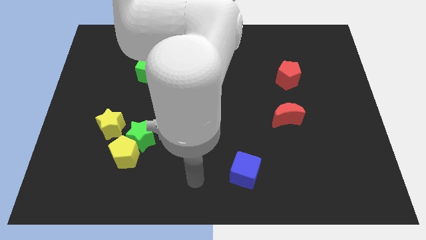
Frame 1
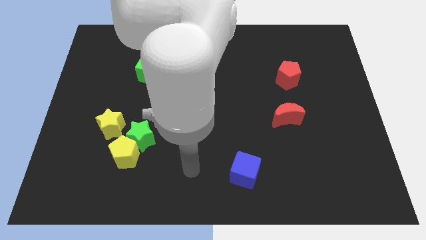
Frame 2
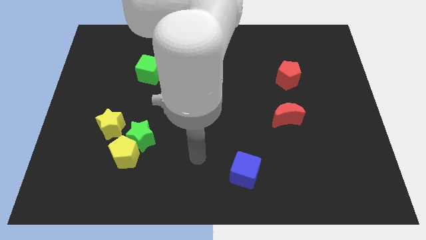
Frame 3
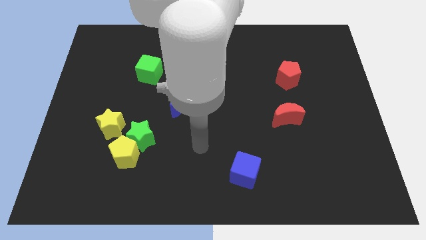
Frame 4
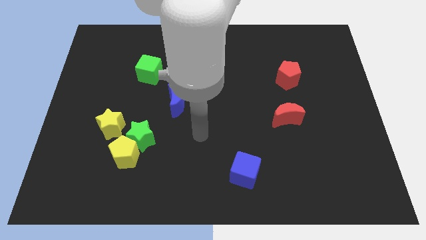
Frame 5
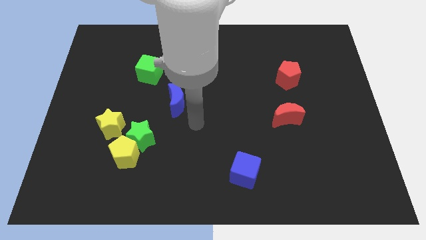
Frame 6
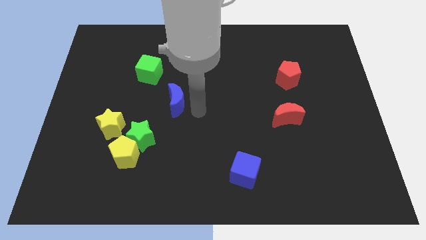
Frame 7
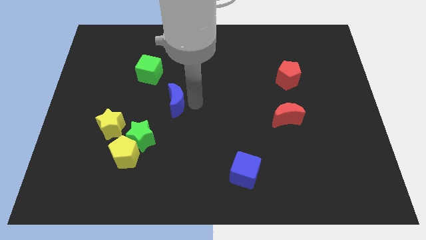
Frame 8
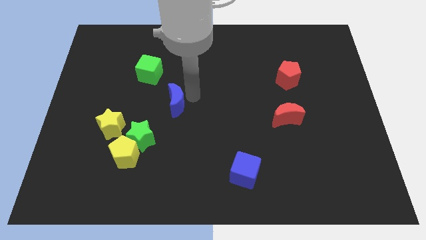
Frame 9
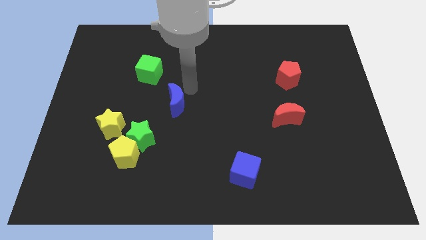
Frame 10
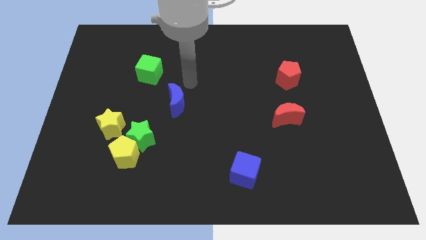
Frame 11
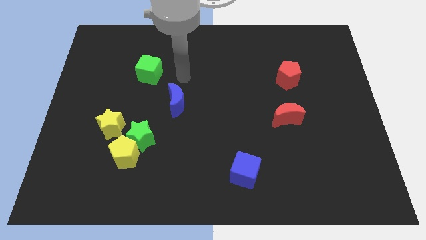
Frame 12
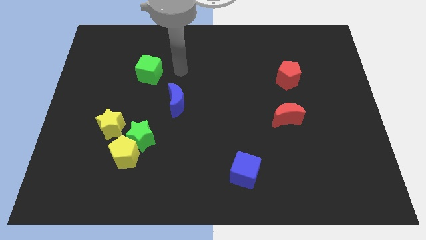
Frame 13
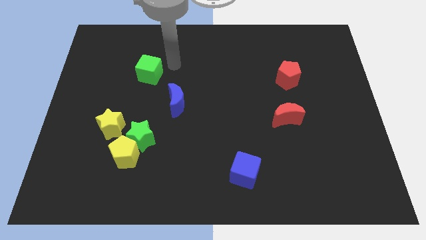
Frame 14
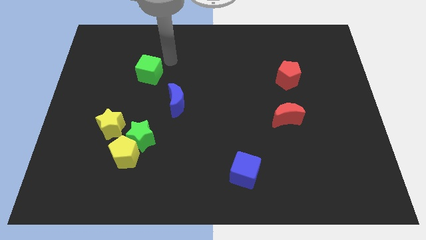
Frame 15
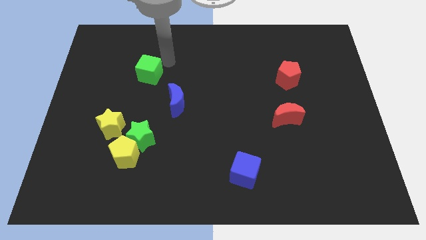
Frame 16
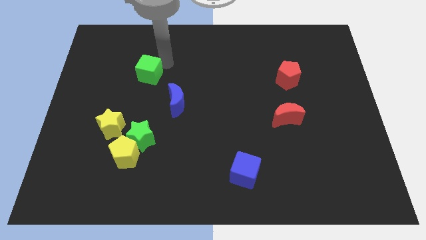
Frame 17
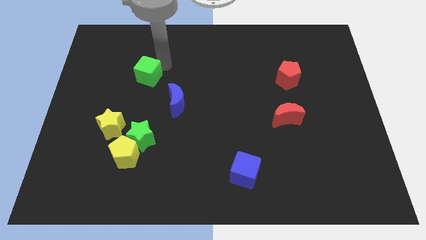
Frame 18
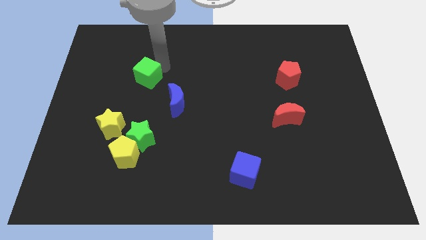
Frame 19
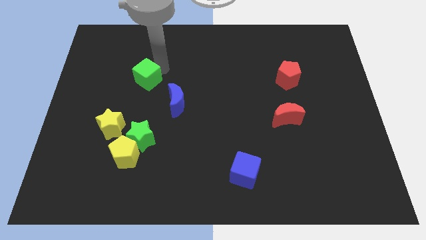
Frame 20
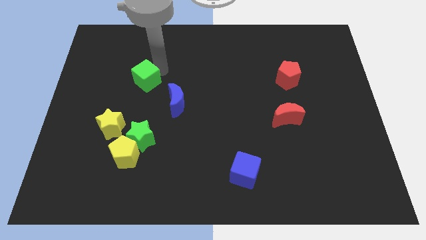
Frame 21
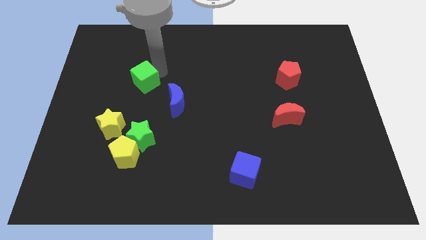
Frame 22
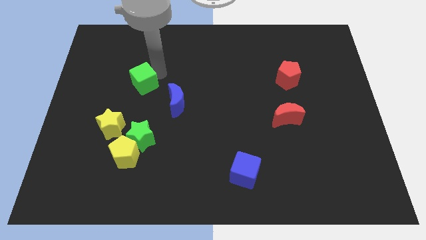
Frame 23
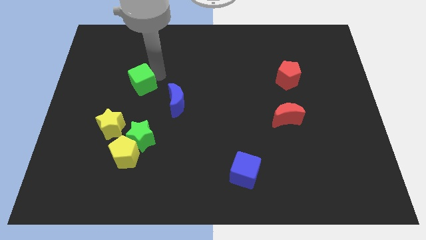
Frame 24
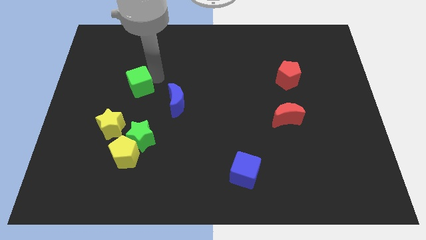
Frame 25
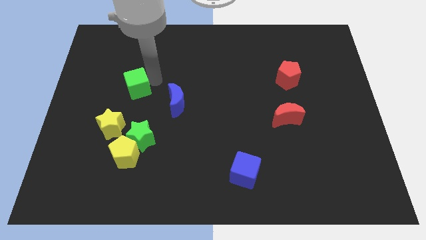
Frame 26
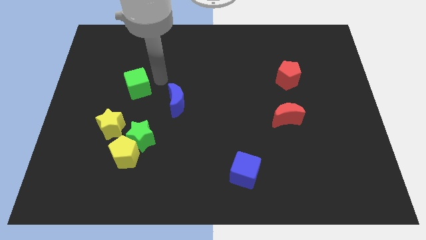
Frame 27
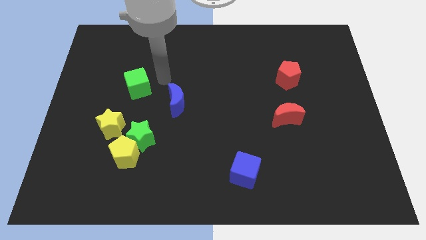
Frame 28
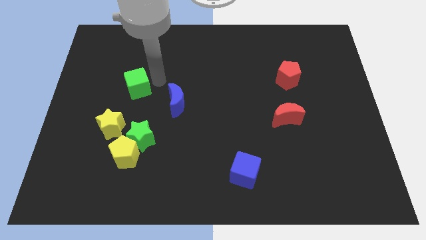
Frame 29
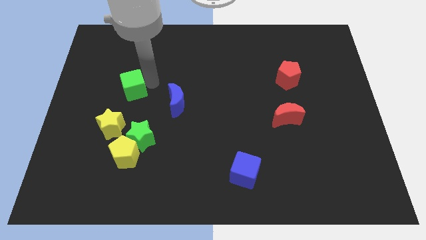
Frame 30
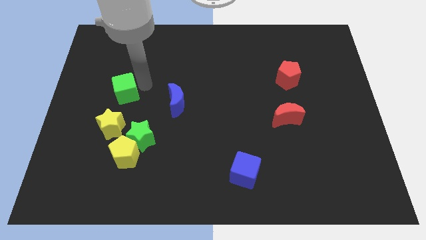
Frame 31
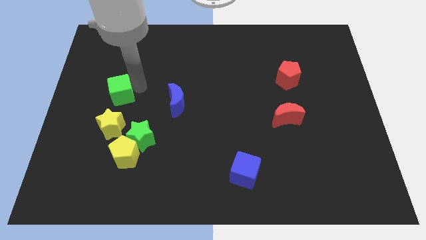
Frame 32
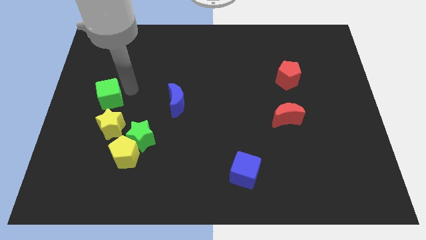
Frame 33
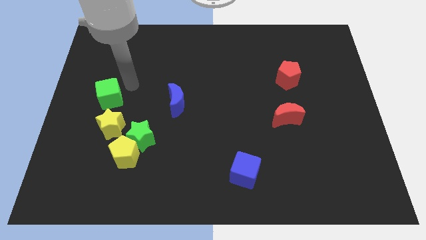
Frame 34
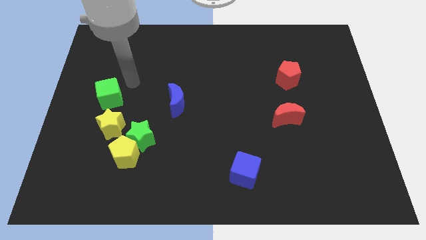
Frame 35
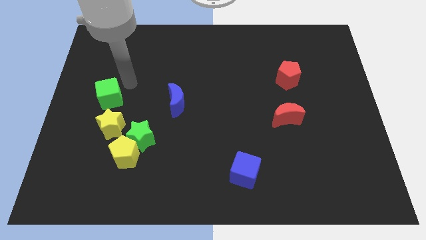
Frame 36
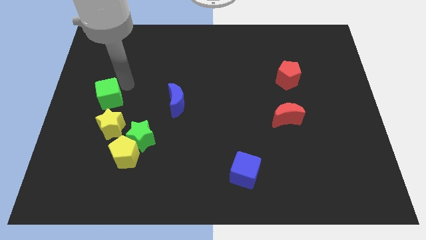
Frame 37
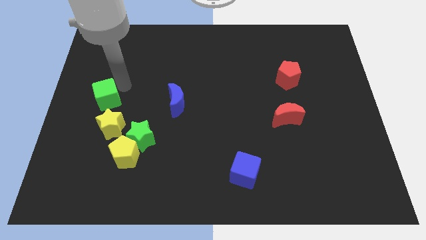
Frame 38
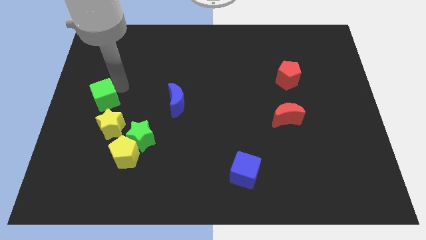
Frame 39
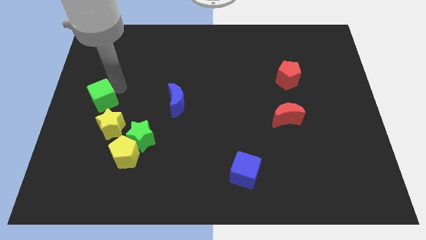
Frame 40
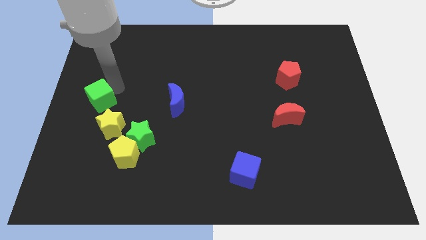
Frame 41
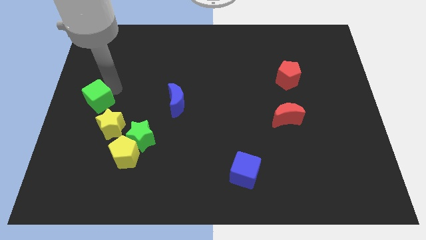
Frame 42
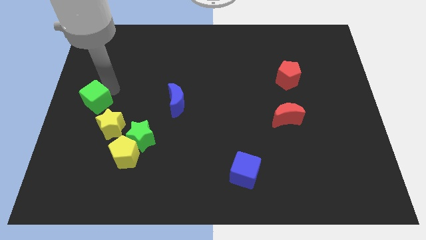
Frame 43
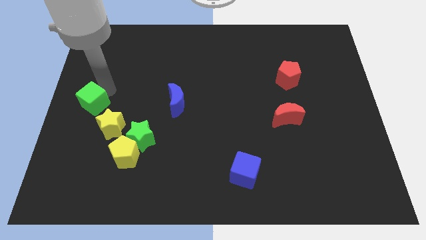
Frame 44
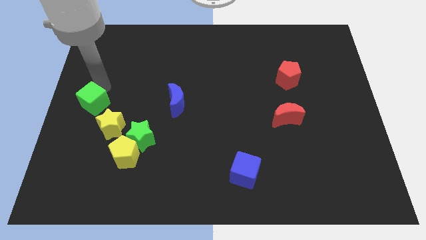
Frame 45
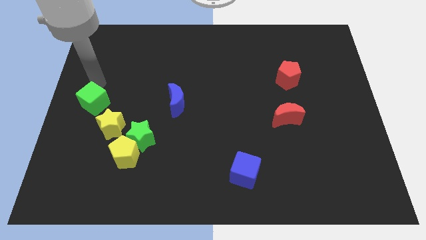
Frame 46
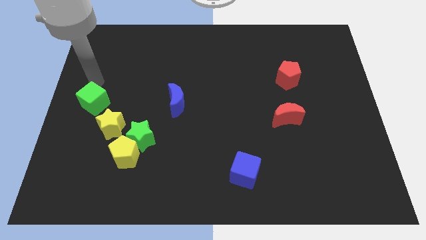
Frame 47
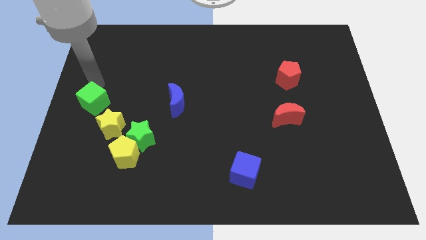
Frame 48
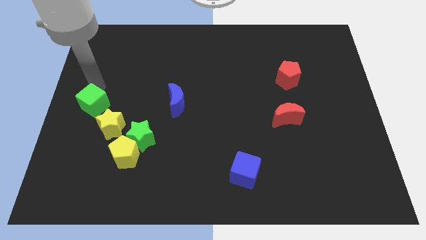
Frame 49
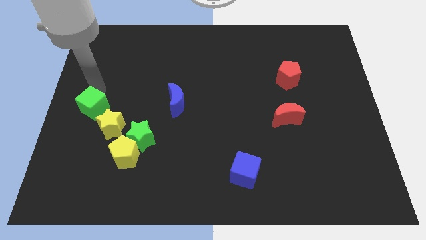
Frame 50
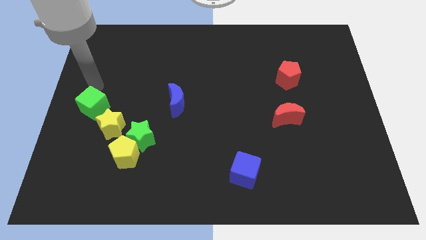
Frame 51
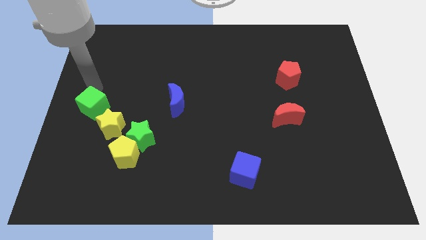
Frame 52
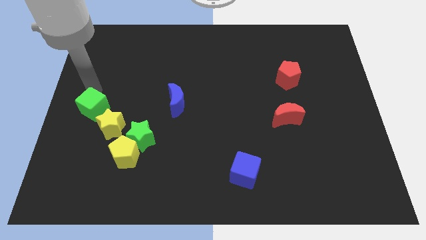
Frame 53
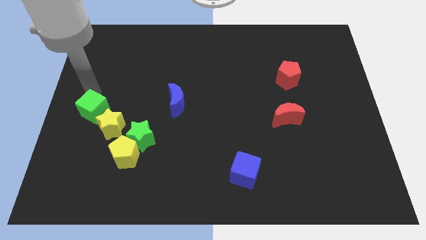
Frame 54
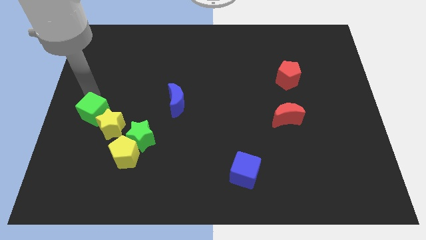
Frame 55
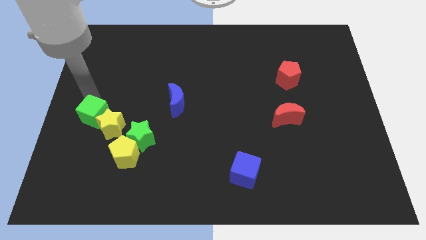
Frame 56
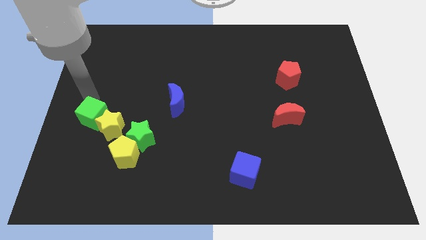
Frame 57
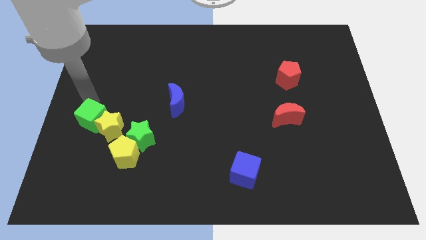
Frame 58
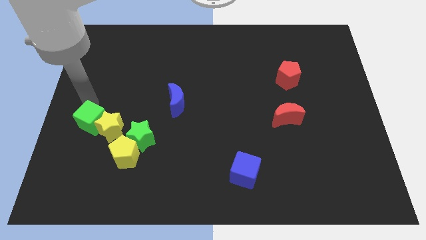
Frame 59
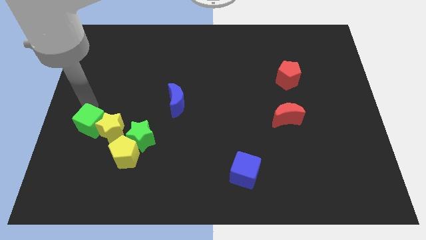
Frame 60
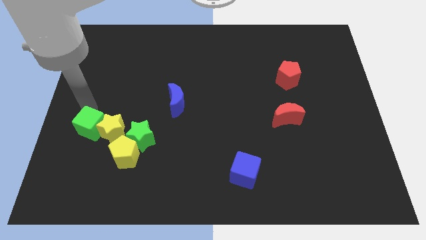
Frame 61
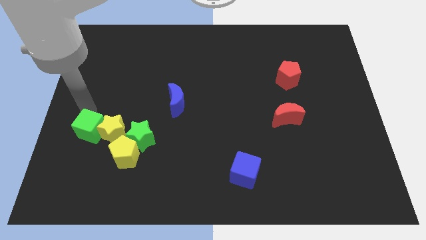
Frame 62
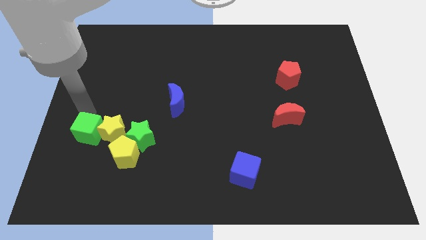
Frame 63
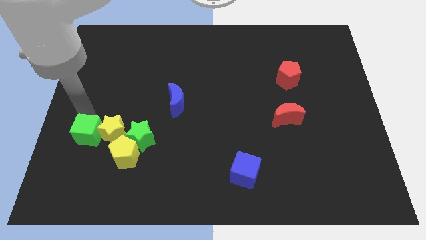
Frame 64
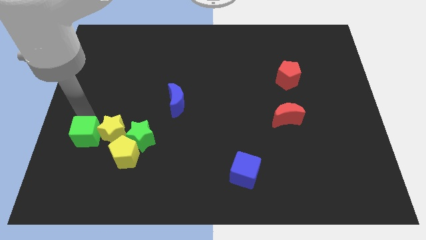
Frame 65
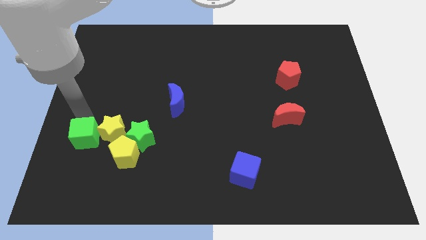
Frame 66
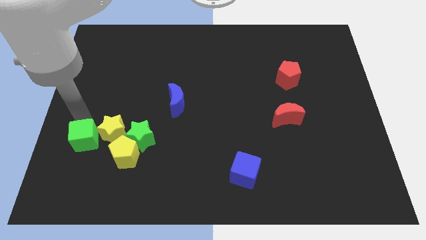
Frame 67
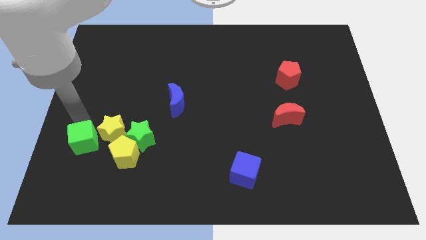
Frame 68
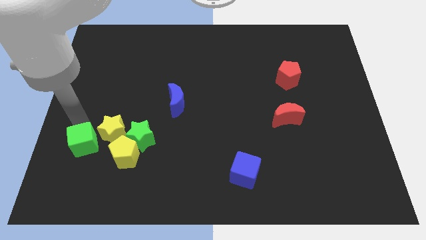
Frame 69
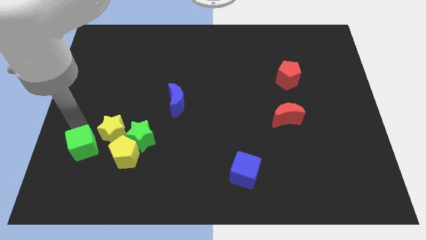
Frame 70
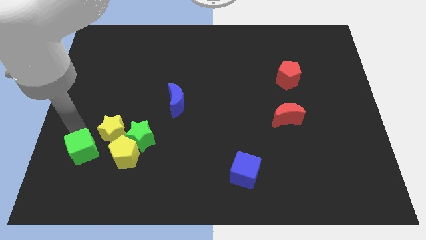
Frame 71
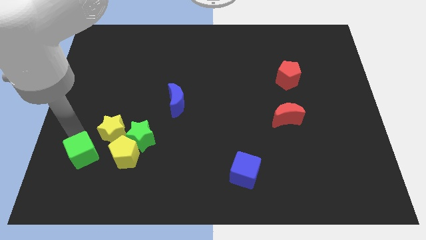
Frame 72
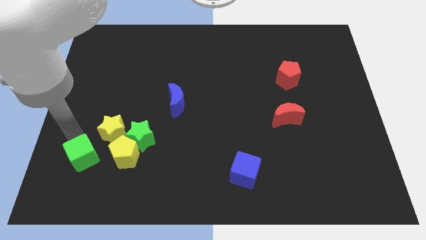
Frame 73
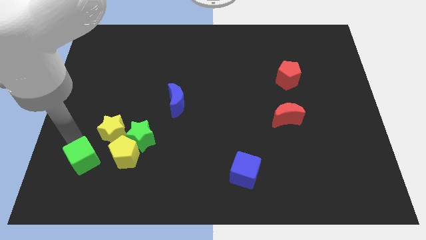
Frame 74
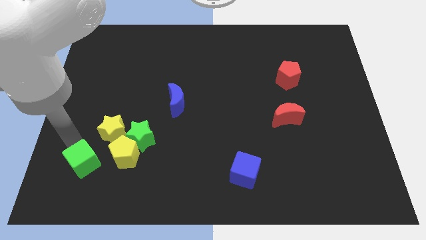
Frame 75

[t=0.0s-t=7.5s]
slide the green cube to the bottom side of the yellow star
